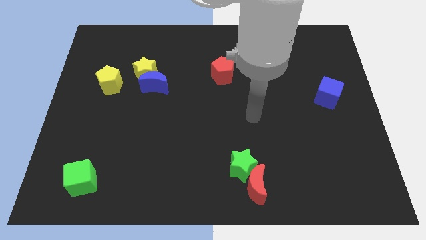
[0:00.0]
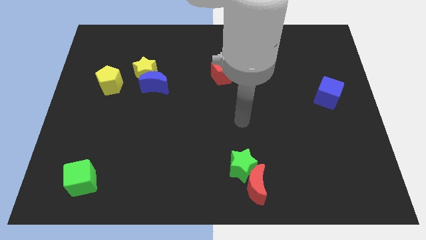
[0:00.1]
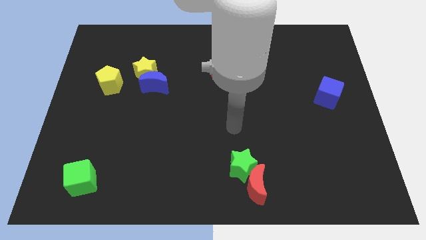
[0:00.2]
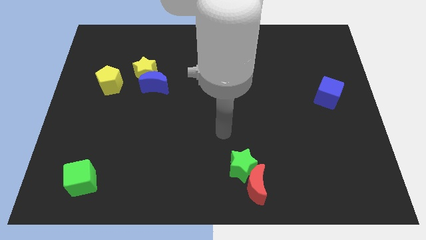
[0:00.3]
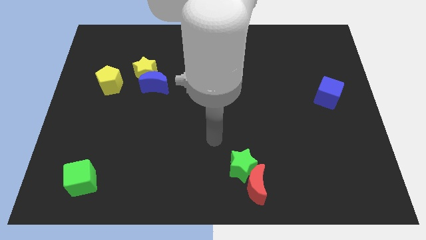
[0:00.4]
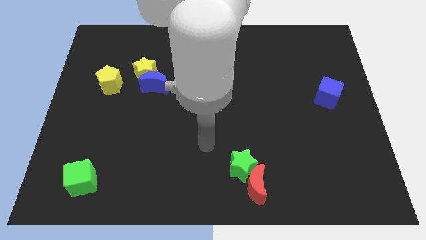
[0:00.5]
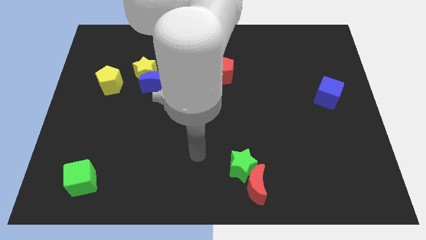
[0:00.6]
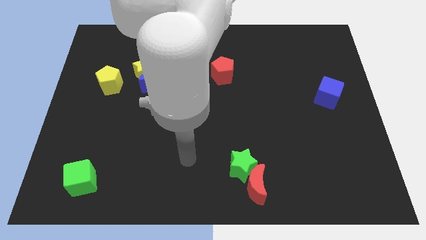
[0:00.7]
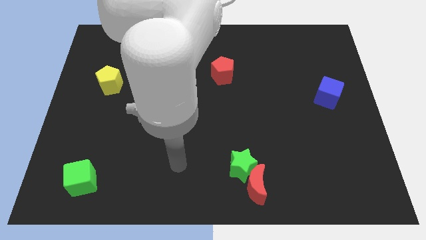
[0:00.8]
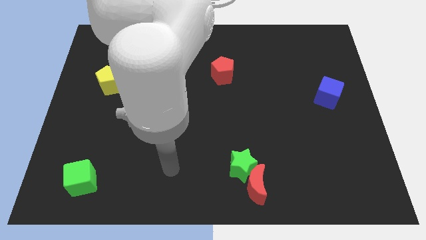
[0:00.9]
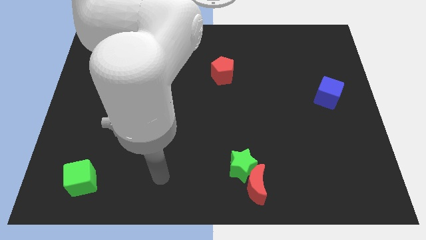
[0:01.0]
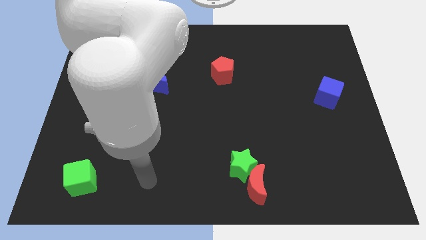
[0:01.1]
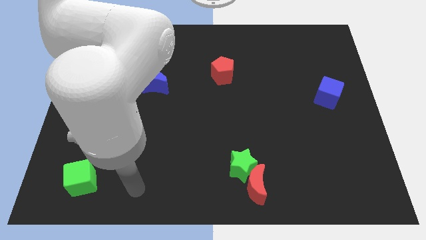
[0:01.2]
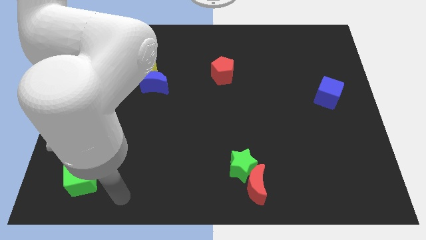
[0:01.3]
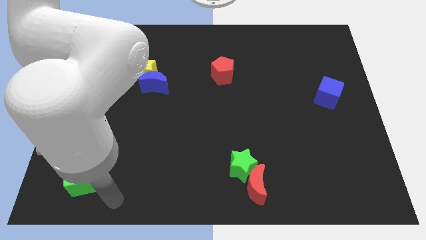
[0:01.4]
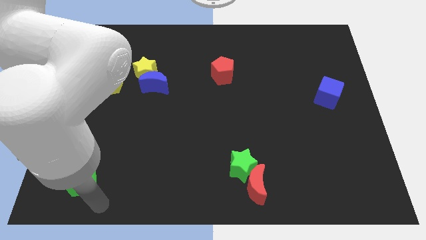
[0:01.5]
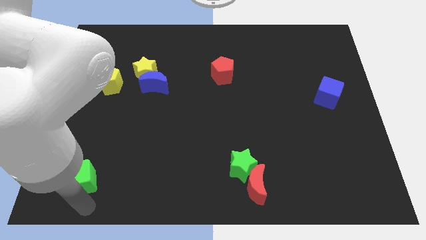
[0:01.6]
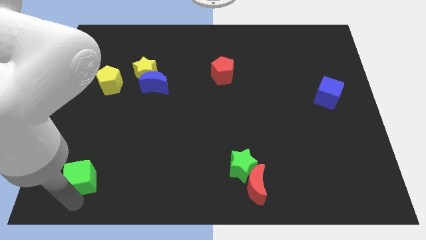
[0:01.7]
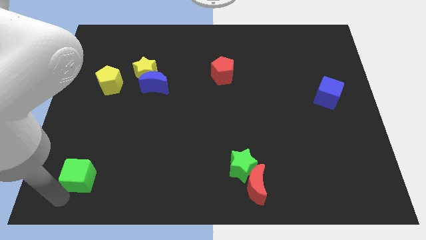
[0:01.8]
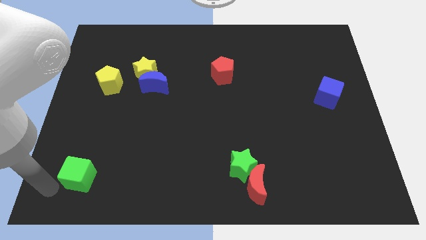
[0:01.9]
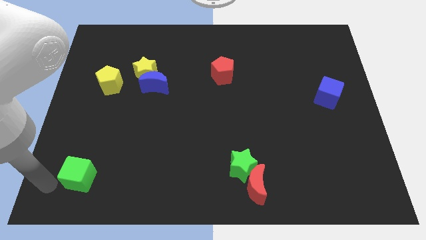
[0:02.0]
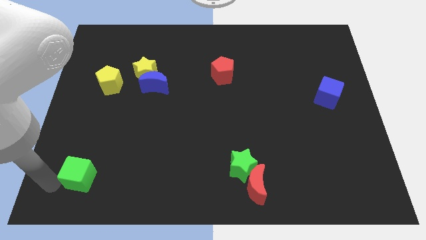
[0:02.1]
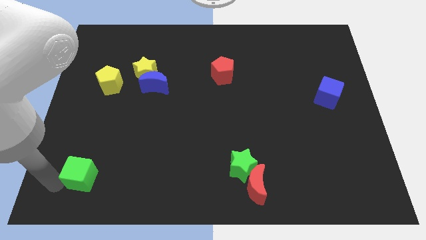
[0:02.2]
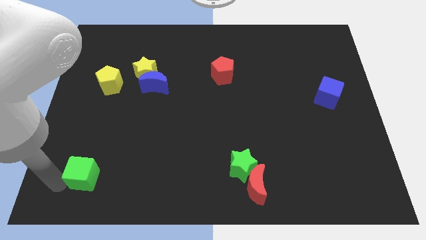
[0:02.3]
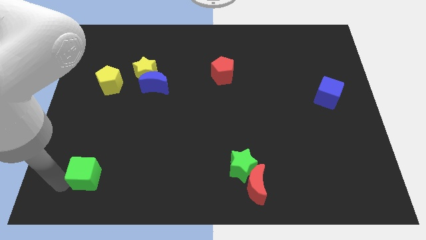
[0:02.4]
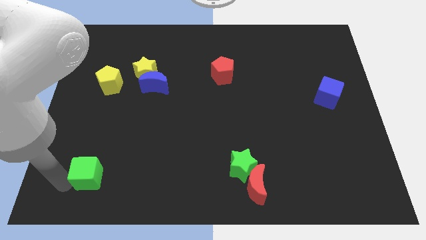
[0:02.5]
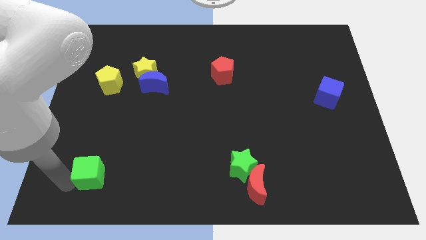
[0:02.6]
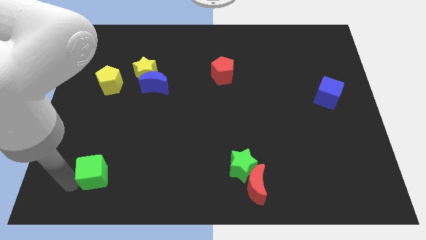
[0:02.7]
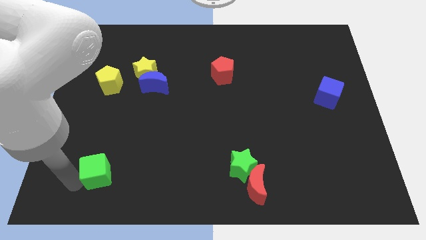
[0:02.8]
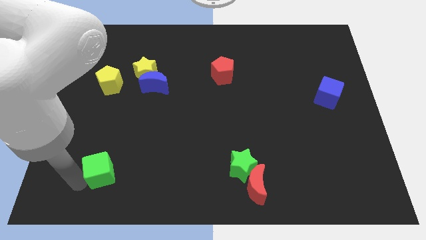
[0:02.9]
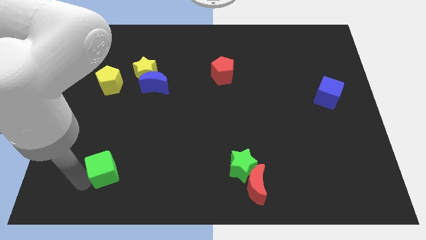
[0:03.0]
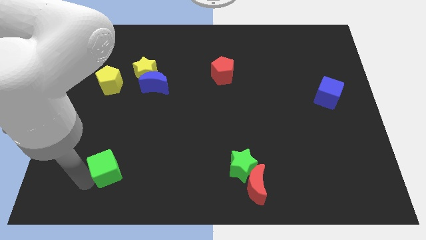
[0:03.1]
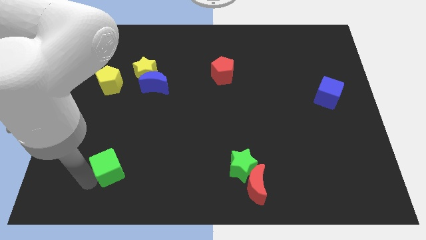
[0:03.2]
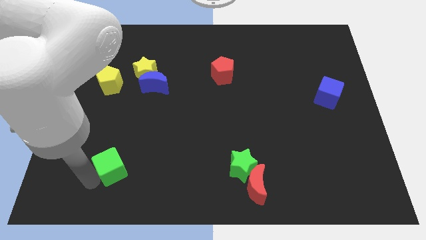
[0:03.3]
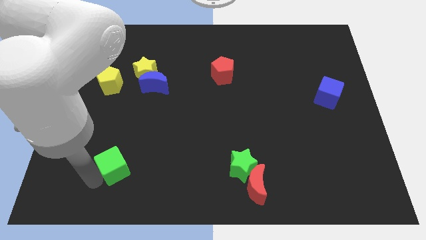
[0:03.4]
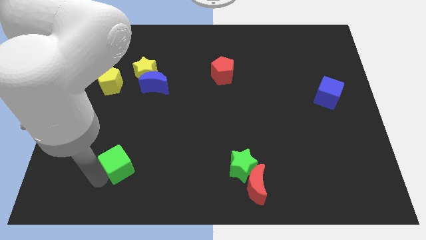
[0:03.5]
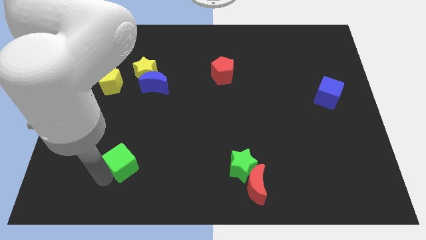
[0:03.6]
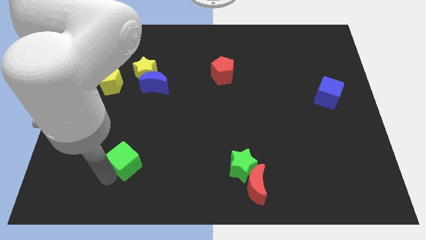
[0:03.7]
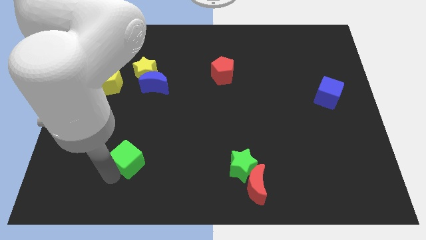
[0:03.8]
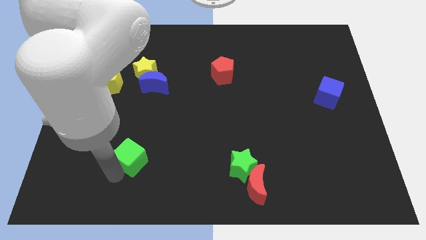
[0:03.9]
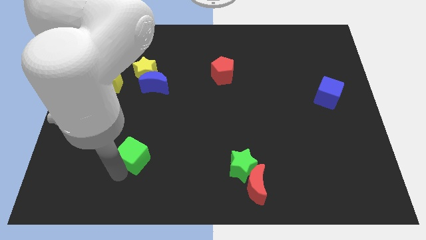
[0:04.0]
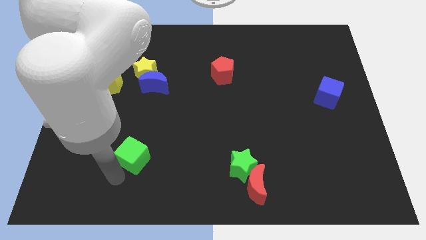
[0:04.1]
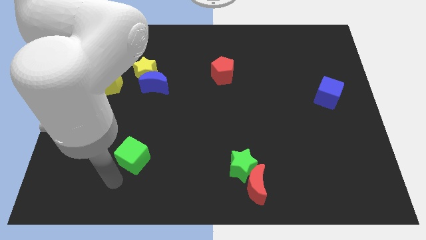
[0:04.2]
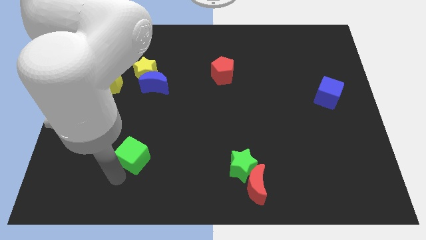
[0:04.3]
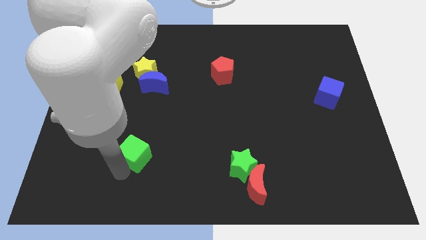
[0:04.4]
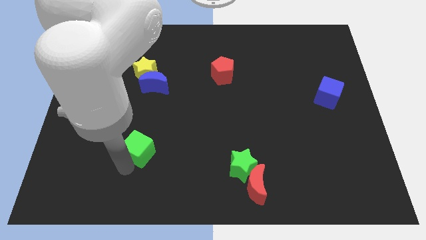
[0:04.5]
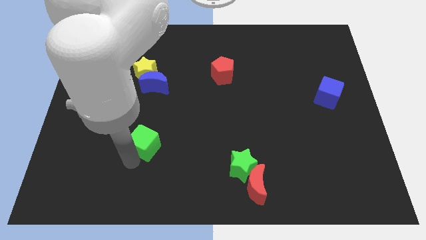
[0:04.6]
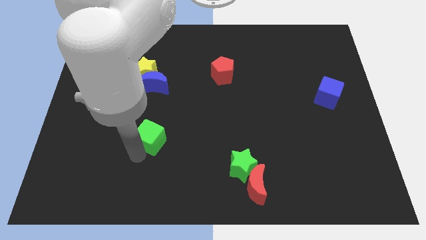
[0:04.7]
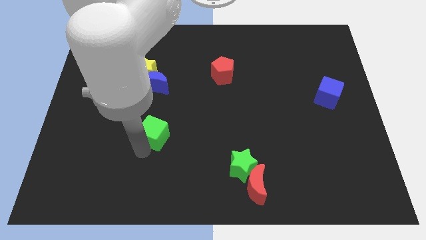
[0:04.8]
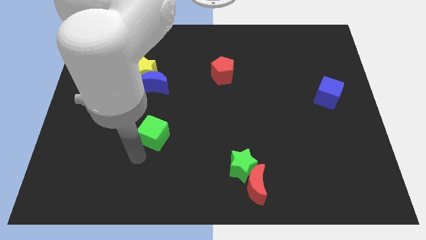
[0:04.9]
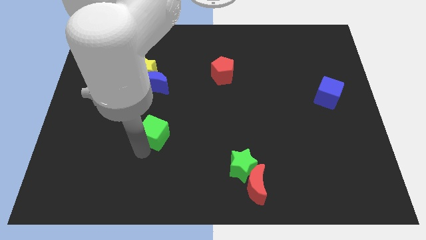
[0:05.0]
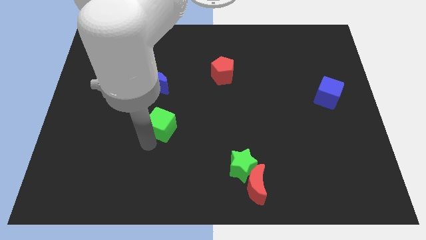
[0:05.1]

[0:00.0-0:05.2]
push the green cube up and then right

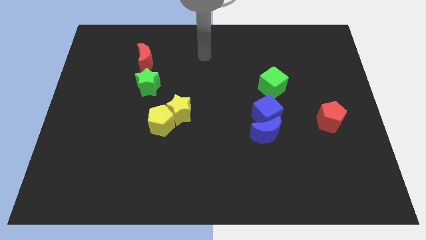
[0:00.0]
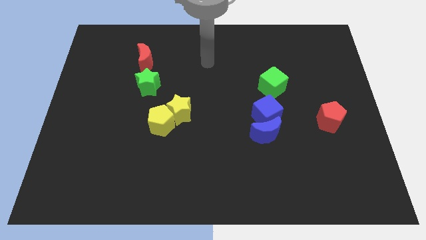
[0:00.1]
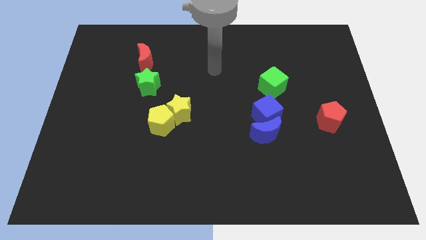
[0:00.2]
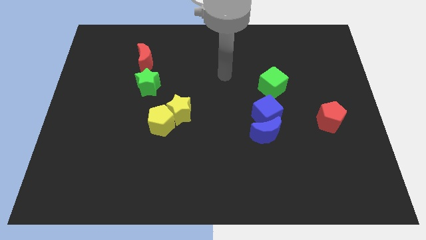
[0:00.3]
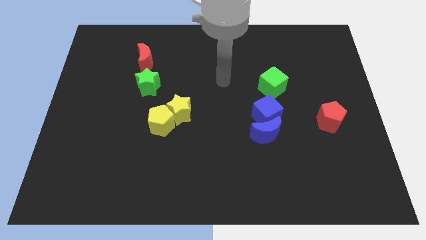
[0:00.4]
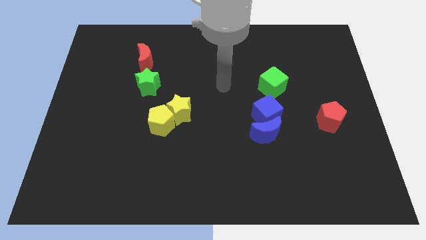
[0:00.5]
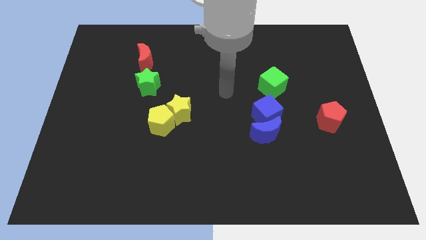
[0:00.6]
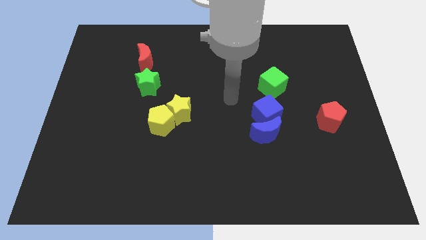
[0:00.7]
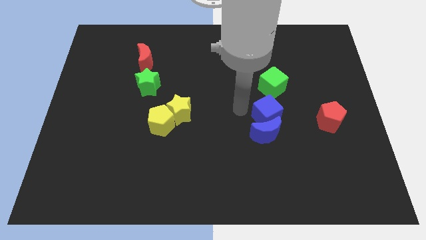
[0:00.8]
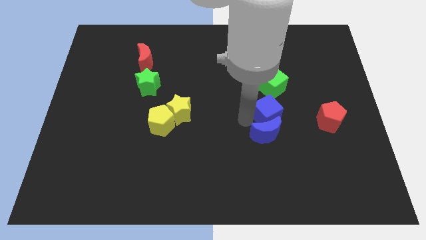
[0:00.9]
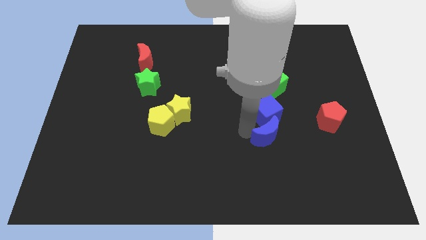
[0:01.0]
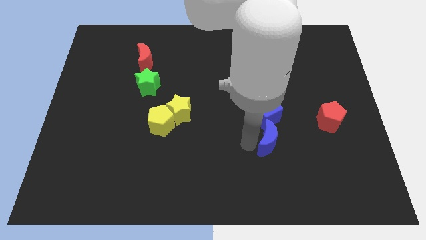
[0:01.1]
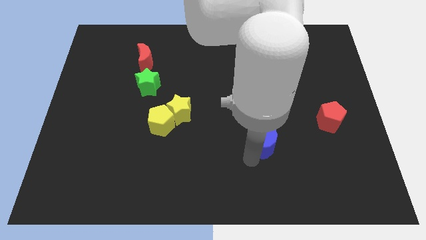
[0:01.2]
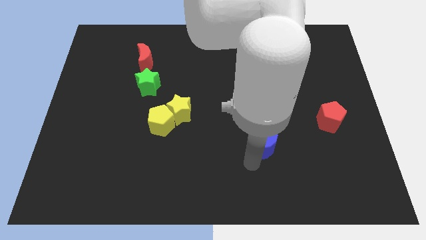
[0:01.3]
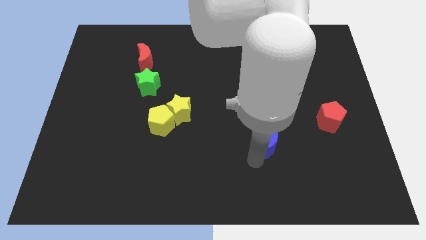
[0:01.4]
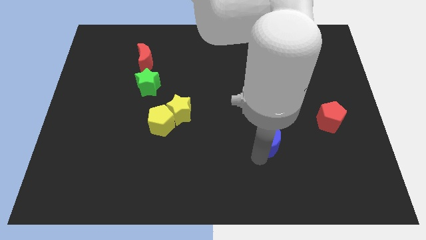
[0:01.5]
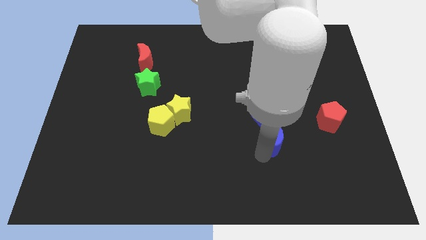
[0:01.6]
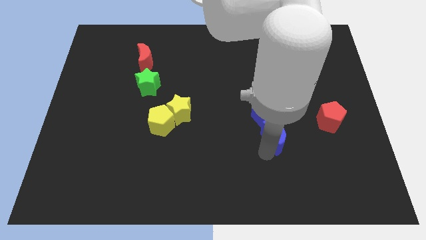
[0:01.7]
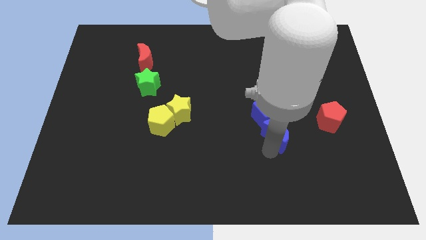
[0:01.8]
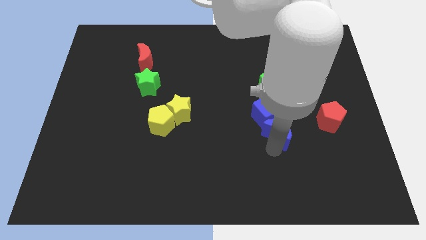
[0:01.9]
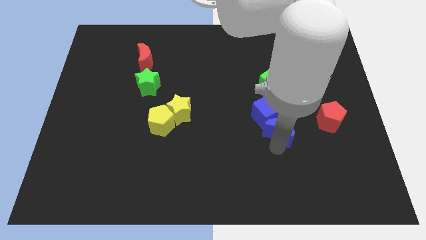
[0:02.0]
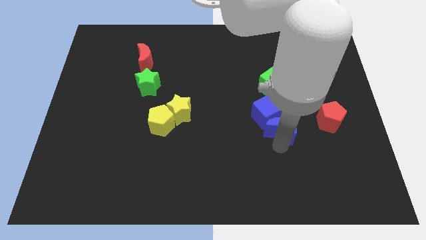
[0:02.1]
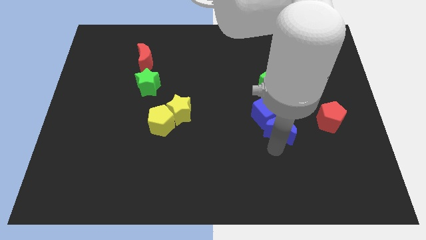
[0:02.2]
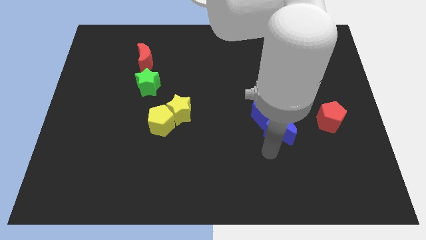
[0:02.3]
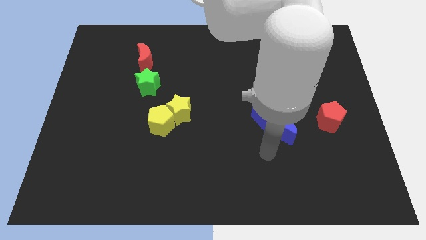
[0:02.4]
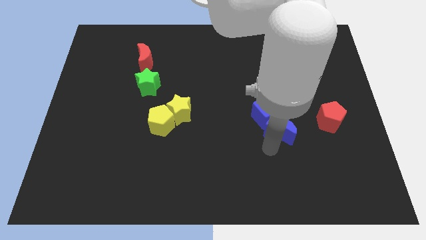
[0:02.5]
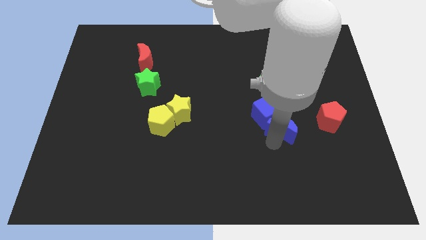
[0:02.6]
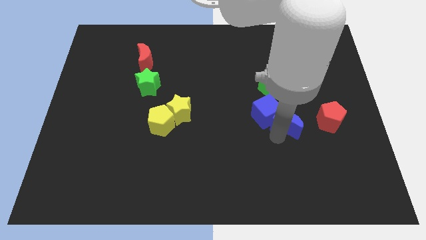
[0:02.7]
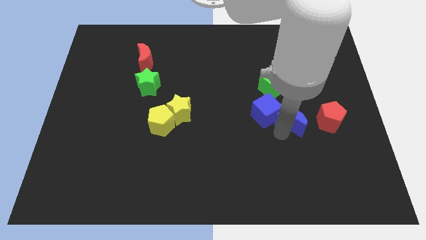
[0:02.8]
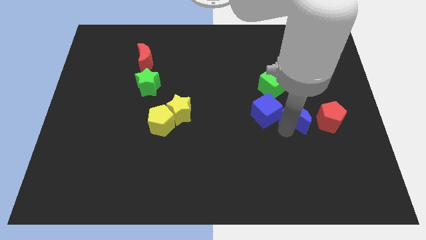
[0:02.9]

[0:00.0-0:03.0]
move the blue moon up and to the right slightly
